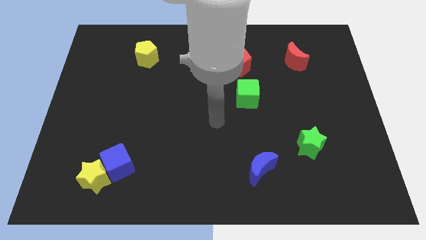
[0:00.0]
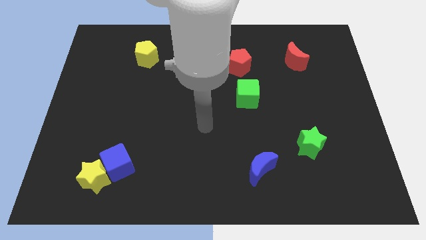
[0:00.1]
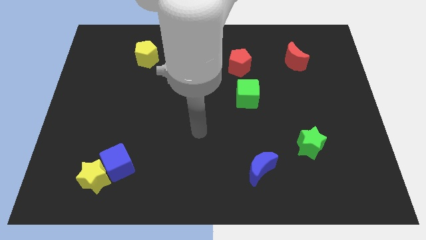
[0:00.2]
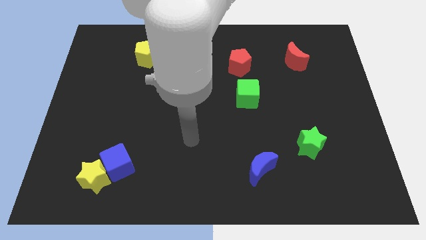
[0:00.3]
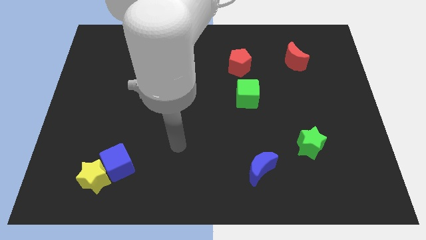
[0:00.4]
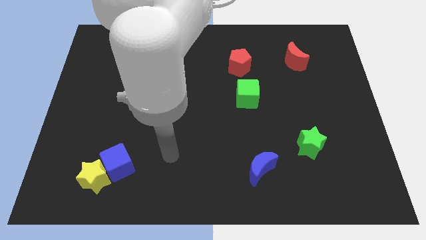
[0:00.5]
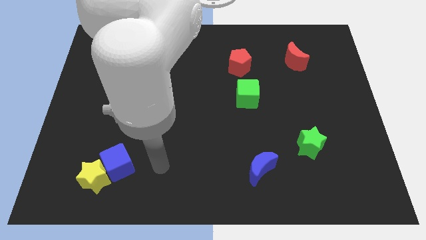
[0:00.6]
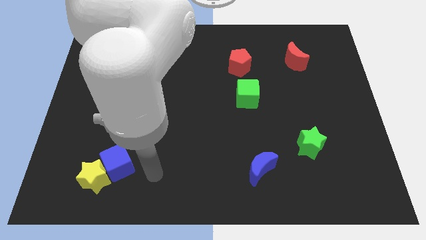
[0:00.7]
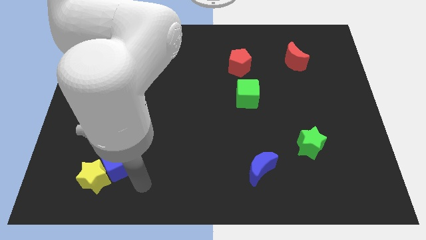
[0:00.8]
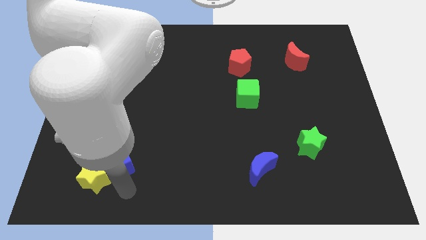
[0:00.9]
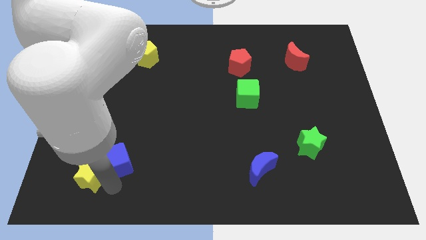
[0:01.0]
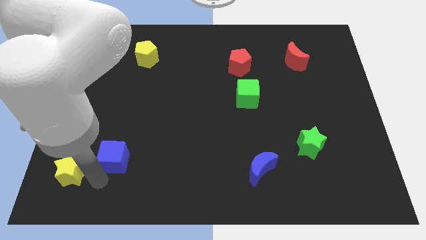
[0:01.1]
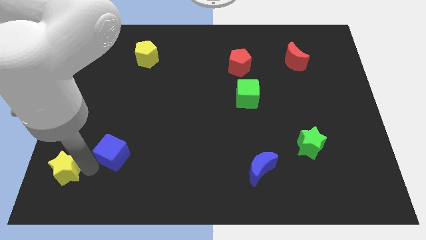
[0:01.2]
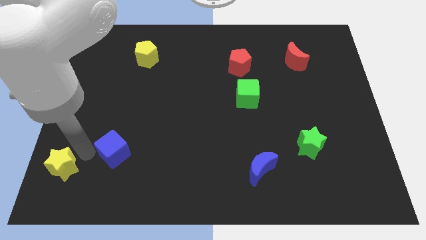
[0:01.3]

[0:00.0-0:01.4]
pull the blue cube apart from the yellow star

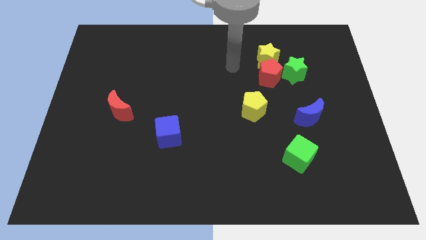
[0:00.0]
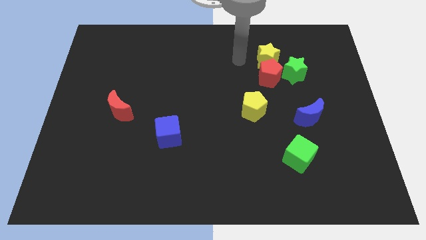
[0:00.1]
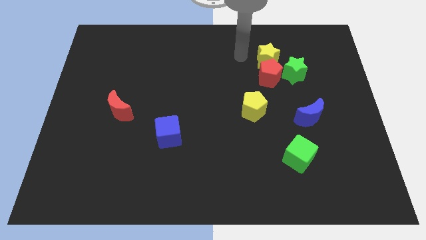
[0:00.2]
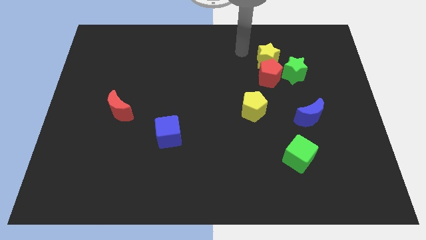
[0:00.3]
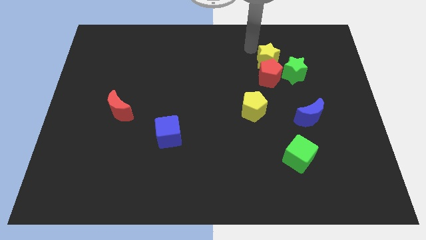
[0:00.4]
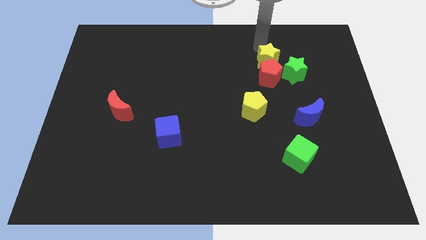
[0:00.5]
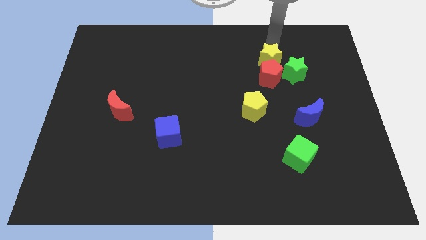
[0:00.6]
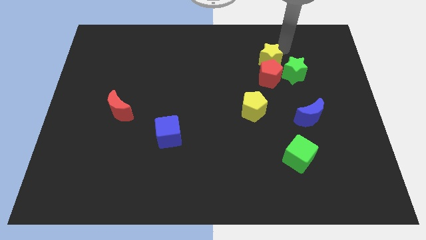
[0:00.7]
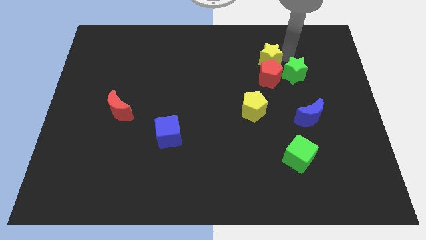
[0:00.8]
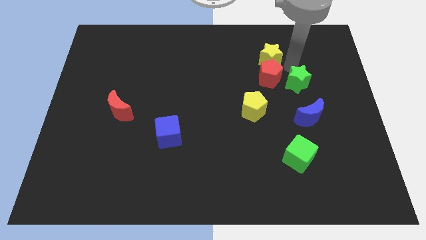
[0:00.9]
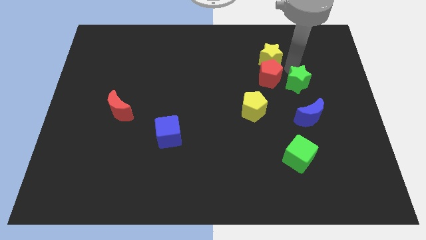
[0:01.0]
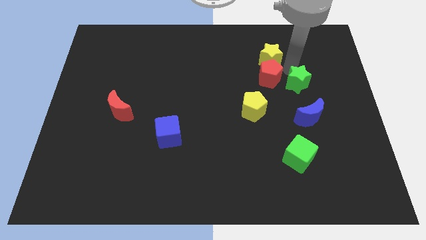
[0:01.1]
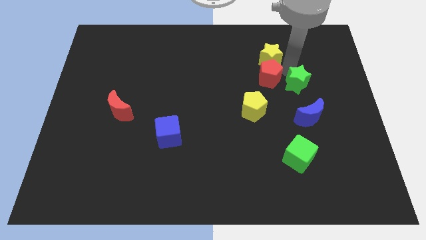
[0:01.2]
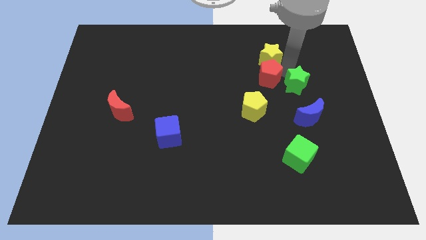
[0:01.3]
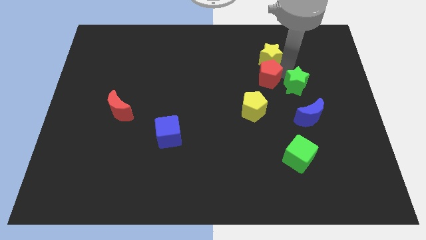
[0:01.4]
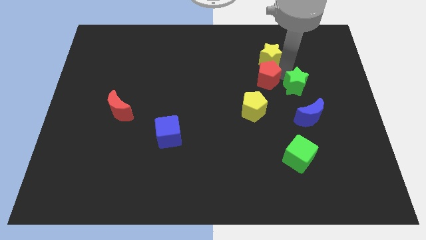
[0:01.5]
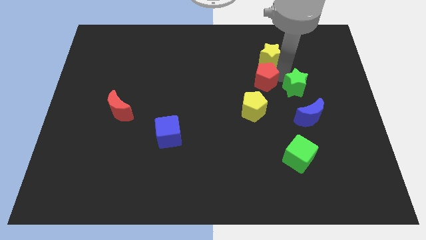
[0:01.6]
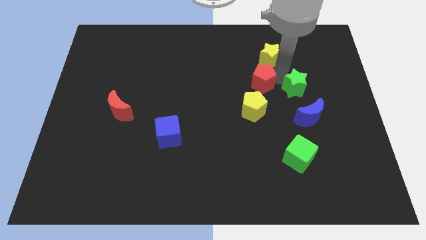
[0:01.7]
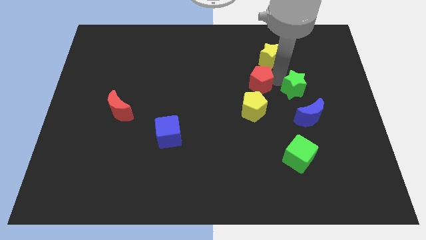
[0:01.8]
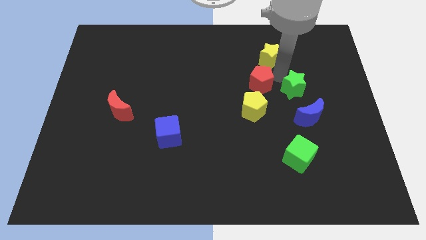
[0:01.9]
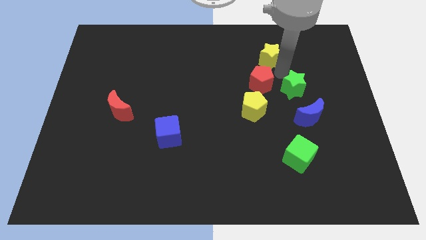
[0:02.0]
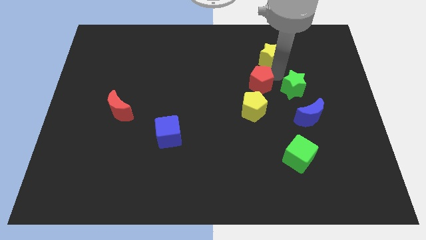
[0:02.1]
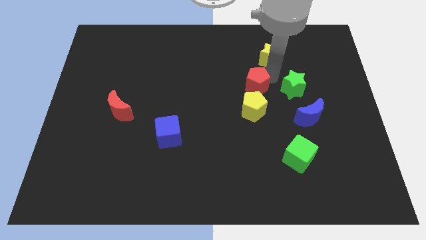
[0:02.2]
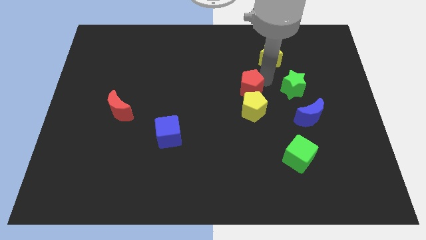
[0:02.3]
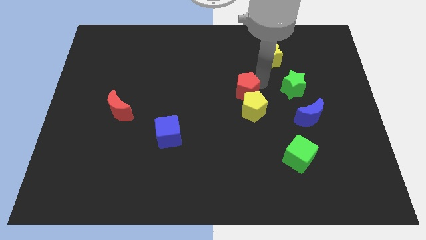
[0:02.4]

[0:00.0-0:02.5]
separate the red pentagon from the yellow star and green star

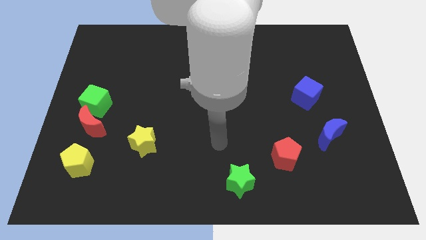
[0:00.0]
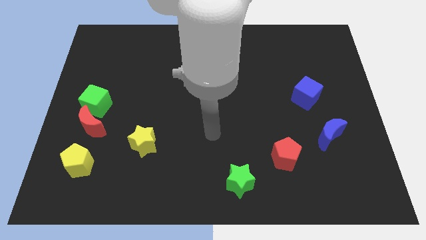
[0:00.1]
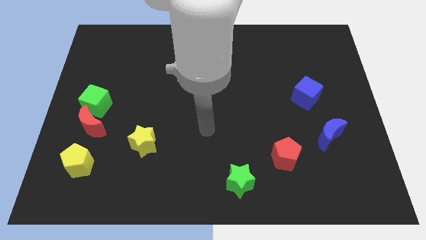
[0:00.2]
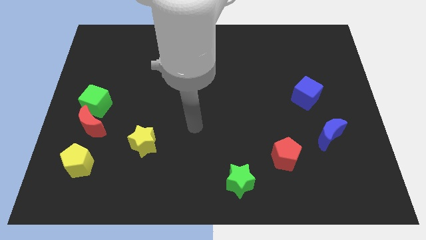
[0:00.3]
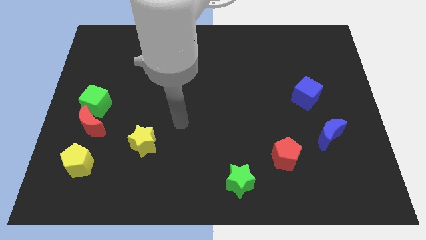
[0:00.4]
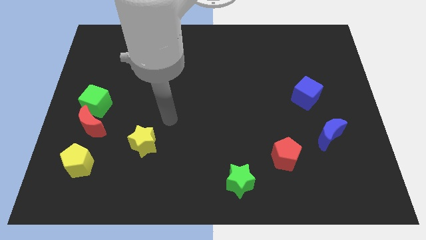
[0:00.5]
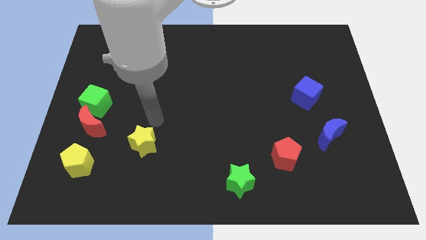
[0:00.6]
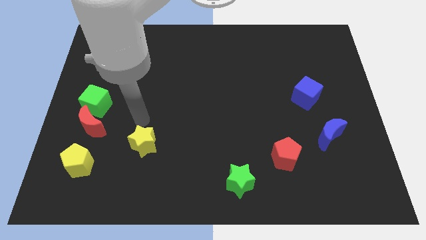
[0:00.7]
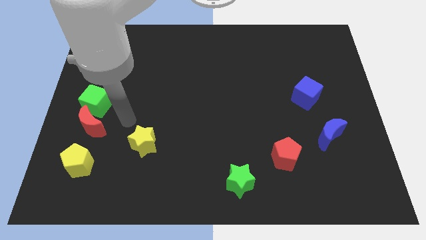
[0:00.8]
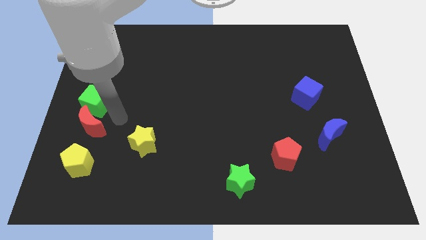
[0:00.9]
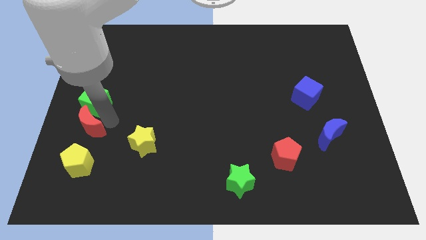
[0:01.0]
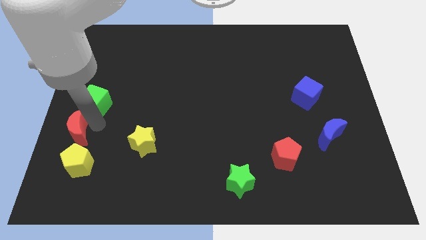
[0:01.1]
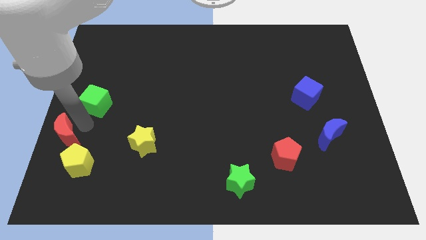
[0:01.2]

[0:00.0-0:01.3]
separate the green cube from the red moon

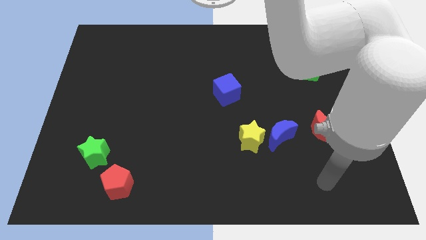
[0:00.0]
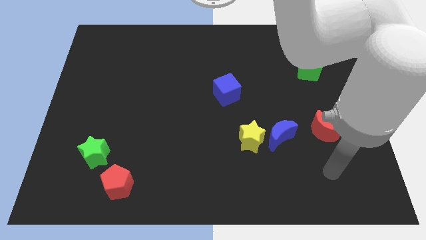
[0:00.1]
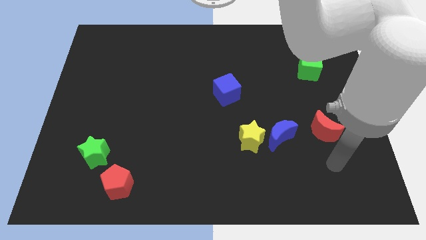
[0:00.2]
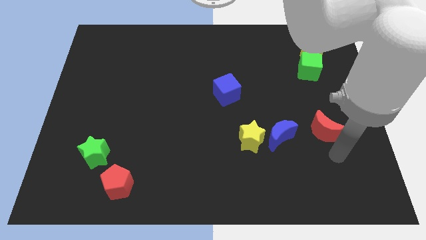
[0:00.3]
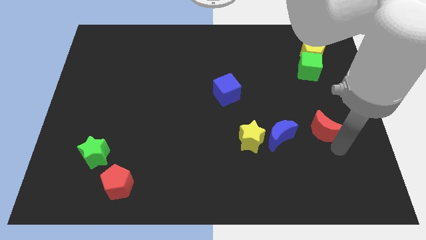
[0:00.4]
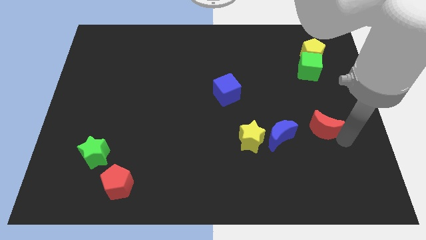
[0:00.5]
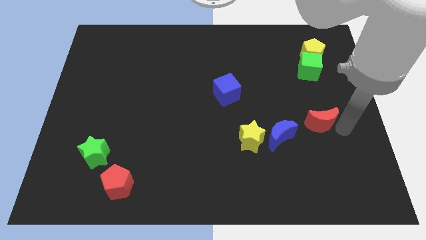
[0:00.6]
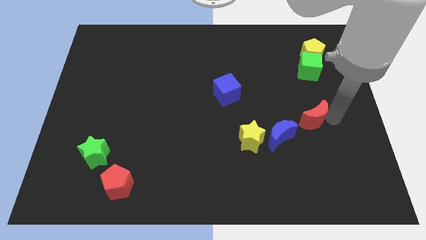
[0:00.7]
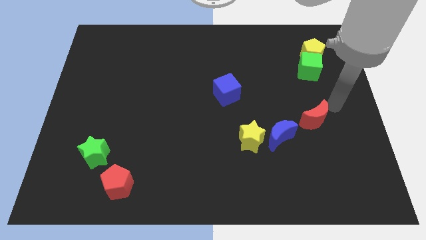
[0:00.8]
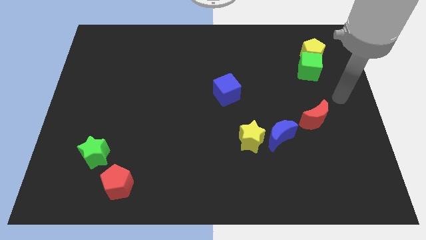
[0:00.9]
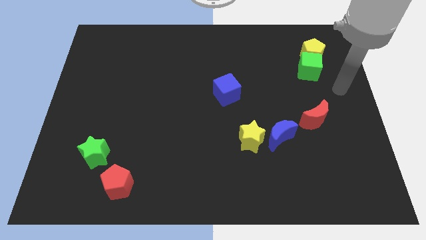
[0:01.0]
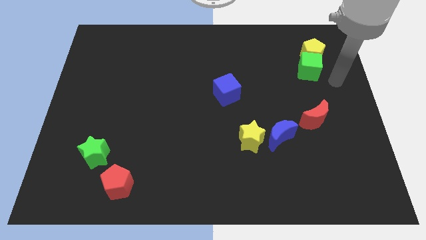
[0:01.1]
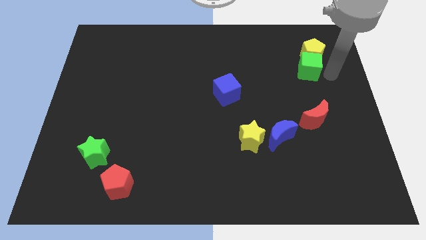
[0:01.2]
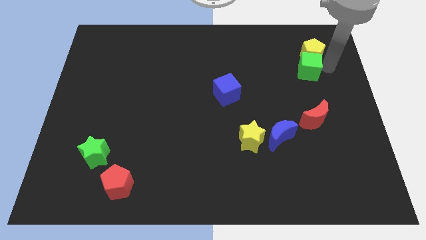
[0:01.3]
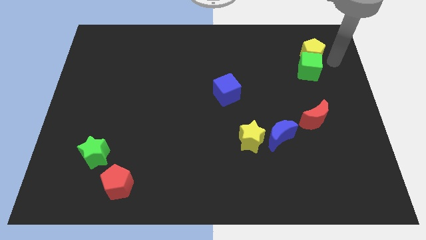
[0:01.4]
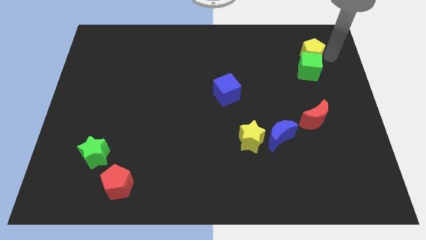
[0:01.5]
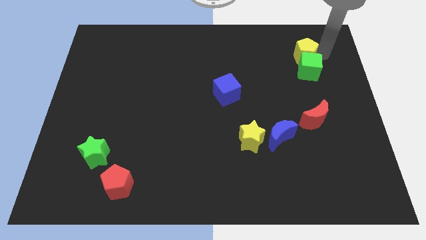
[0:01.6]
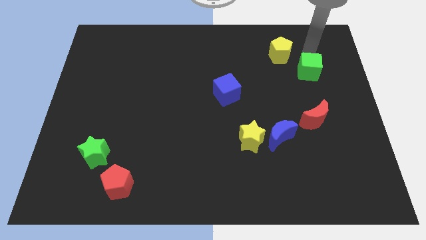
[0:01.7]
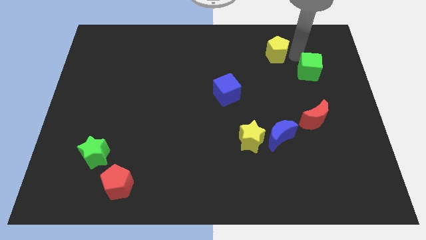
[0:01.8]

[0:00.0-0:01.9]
pull the green cube apart from the yellow pentagon

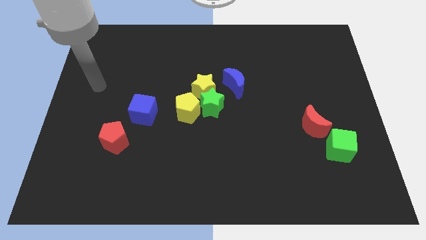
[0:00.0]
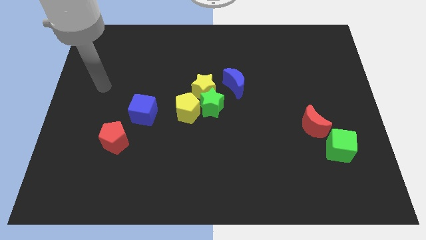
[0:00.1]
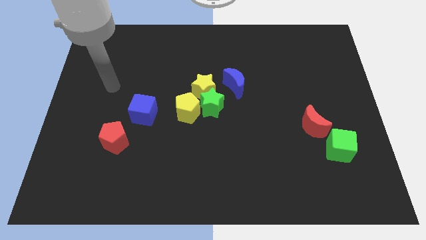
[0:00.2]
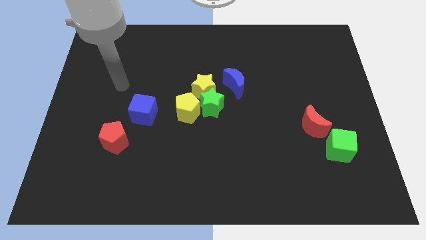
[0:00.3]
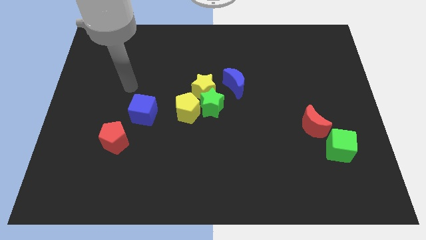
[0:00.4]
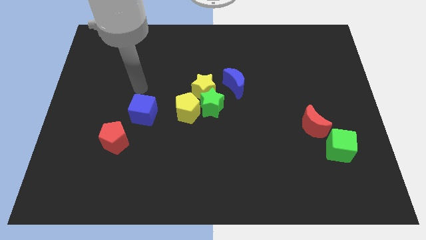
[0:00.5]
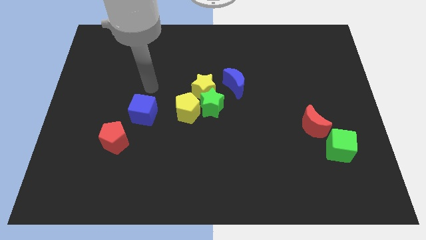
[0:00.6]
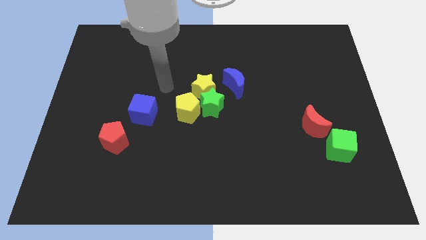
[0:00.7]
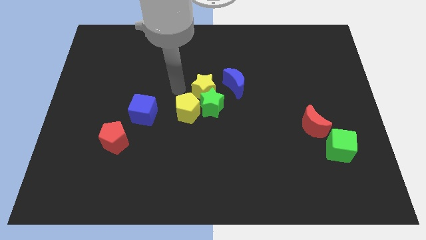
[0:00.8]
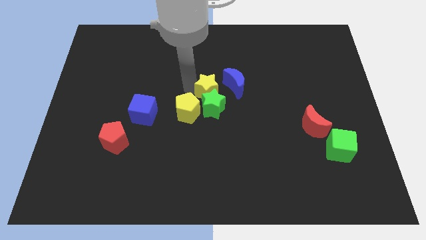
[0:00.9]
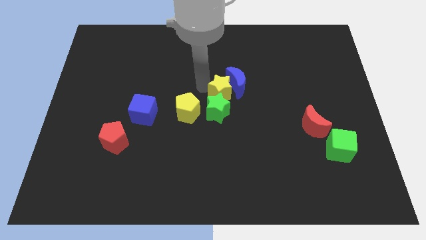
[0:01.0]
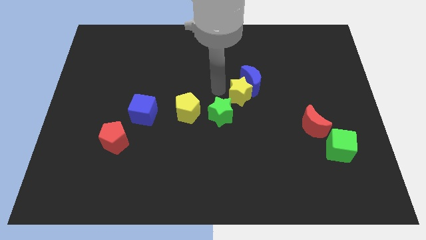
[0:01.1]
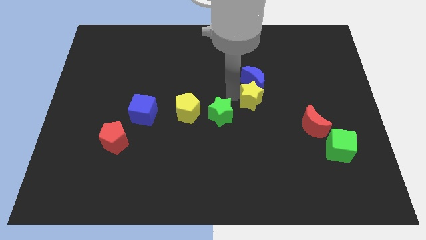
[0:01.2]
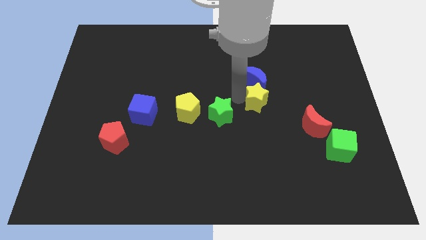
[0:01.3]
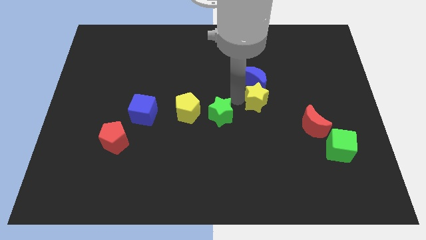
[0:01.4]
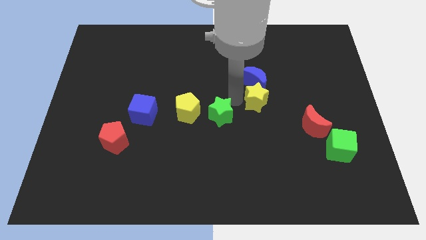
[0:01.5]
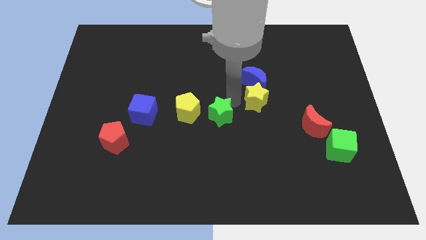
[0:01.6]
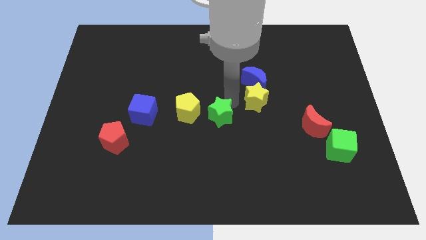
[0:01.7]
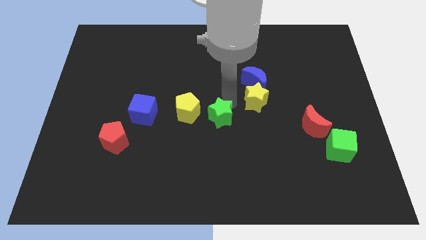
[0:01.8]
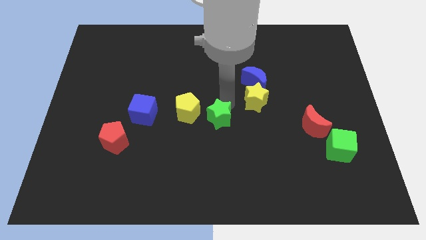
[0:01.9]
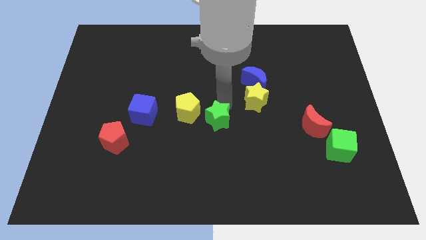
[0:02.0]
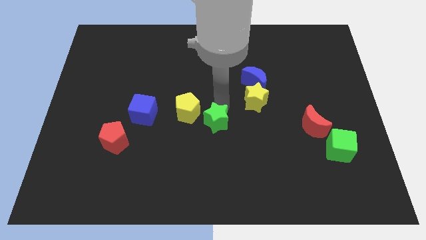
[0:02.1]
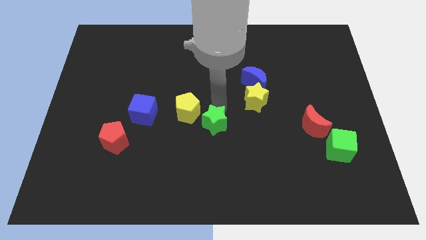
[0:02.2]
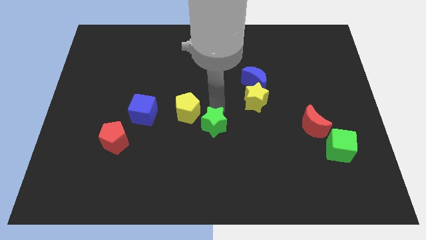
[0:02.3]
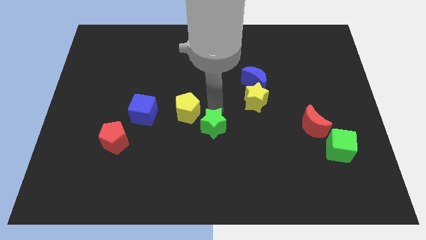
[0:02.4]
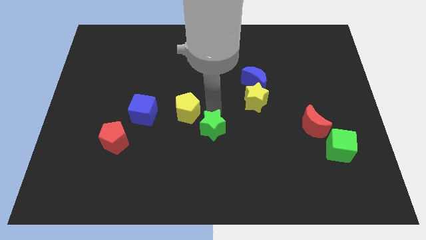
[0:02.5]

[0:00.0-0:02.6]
move the green star away from the clump
